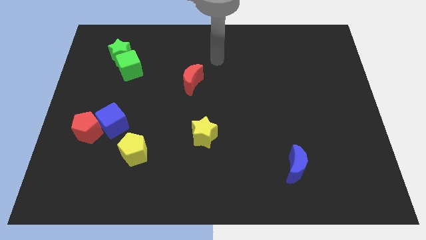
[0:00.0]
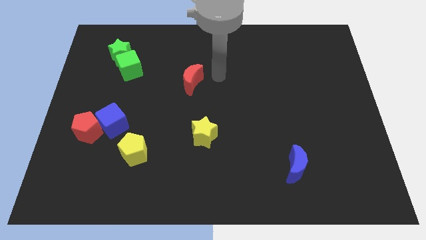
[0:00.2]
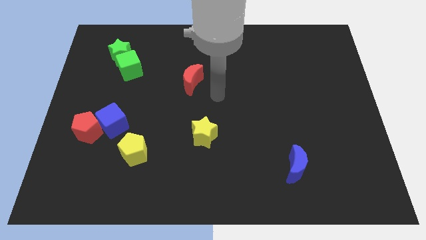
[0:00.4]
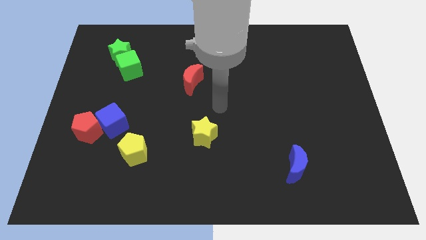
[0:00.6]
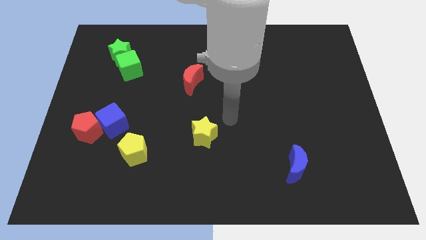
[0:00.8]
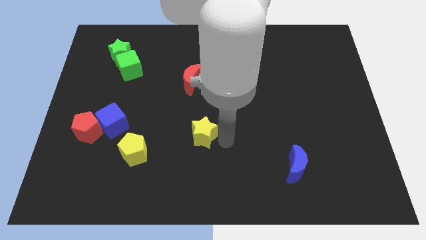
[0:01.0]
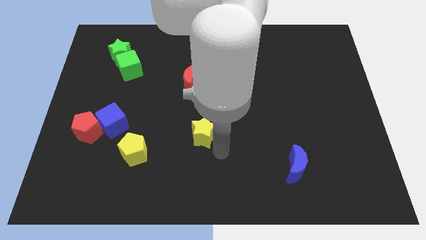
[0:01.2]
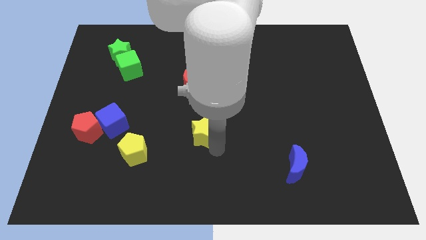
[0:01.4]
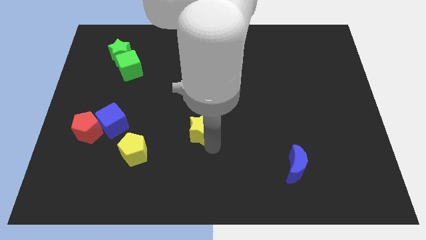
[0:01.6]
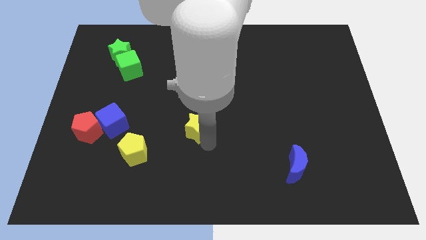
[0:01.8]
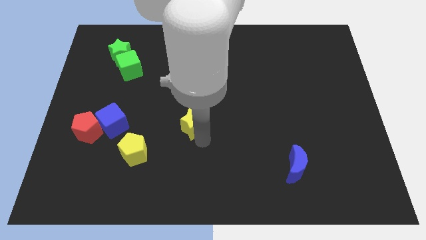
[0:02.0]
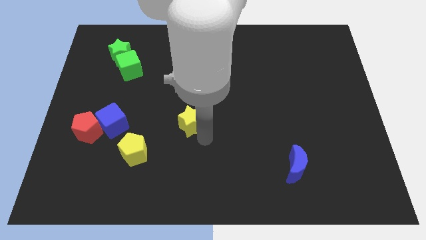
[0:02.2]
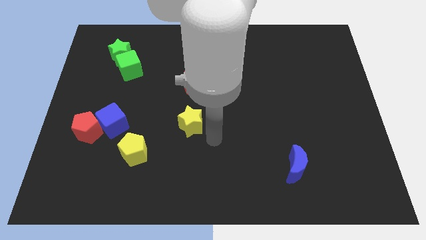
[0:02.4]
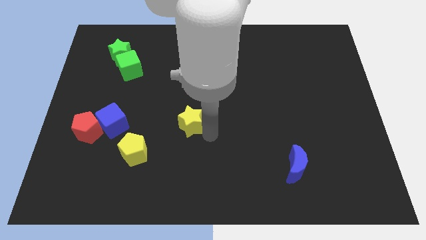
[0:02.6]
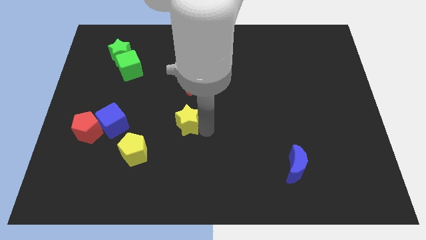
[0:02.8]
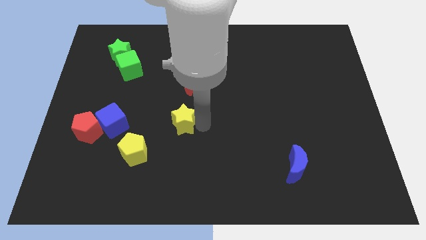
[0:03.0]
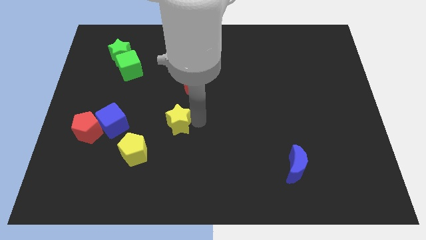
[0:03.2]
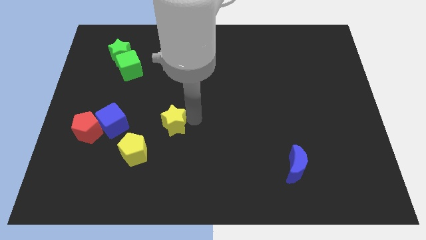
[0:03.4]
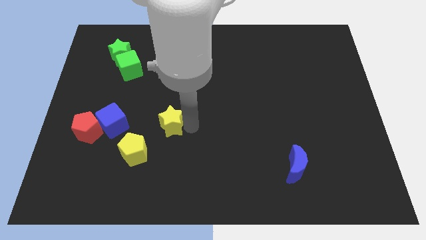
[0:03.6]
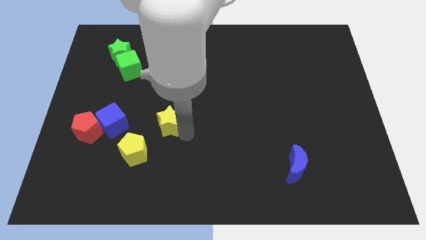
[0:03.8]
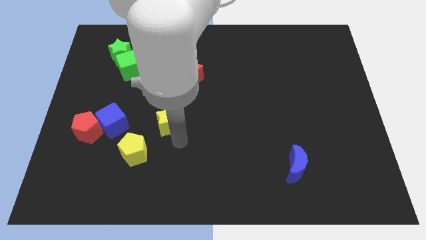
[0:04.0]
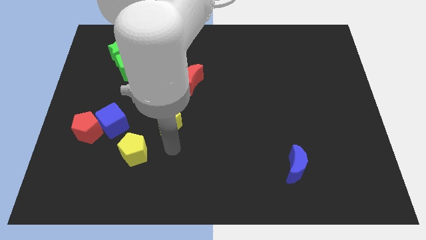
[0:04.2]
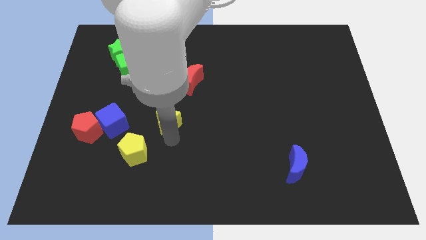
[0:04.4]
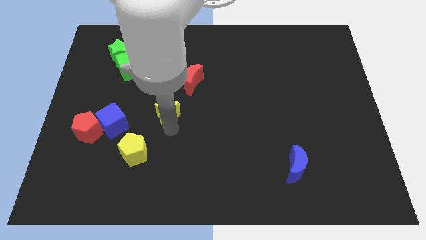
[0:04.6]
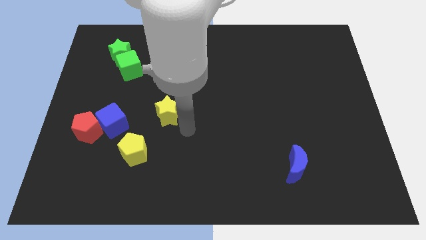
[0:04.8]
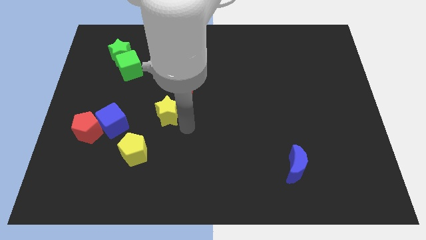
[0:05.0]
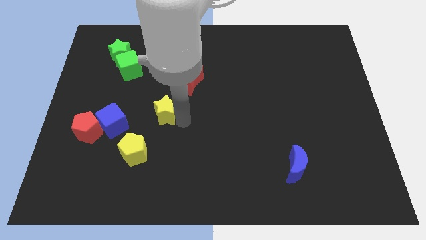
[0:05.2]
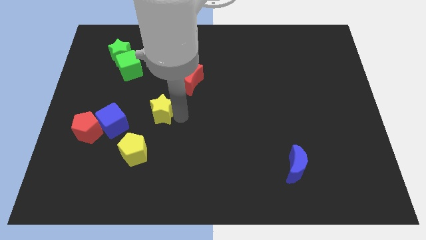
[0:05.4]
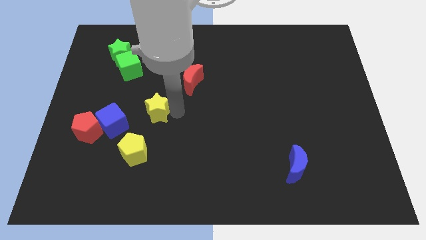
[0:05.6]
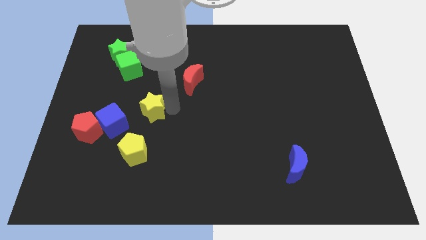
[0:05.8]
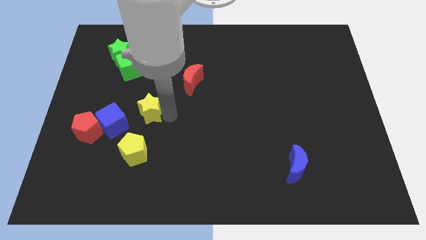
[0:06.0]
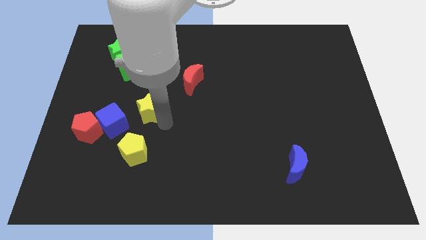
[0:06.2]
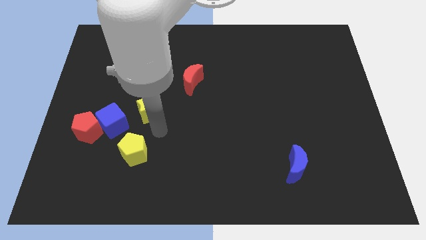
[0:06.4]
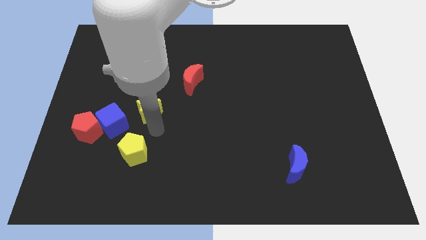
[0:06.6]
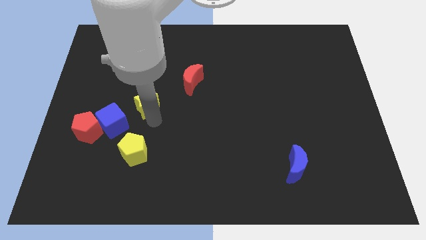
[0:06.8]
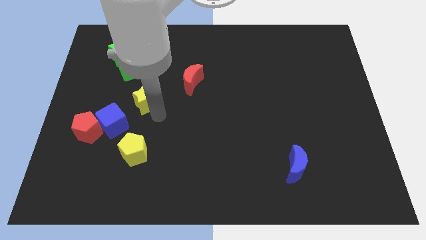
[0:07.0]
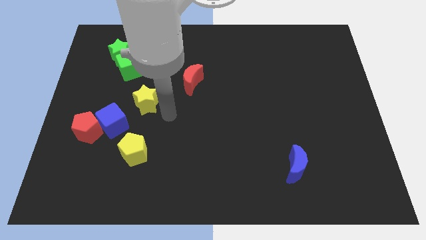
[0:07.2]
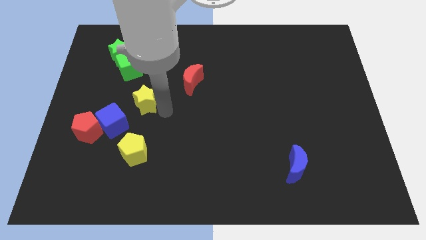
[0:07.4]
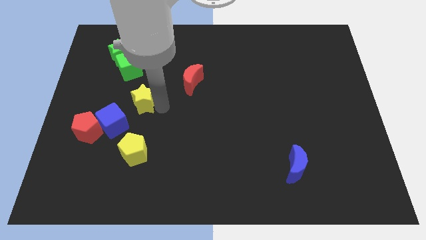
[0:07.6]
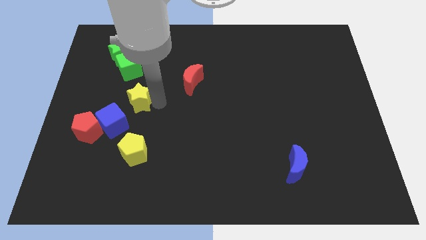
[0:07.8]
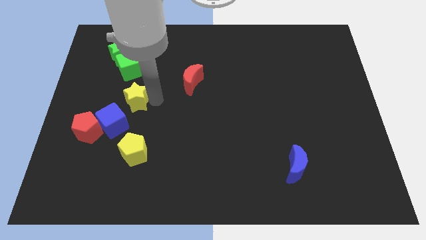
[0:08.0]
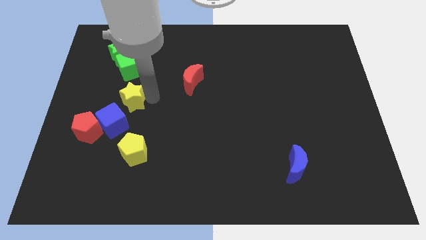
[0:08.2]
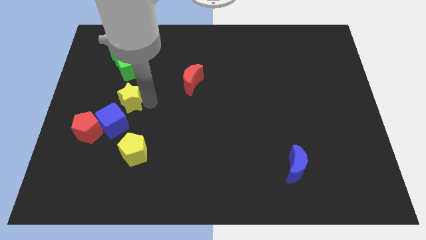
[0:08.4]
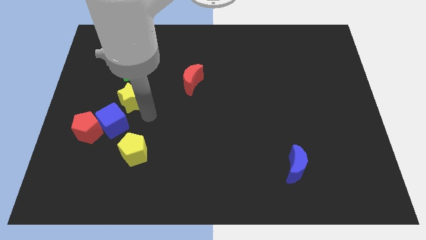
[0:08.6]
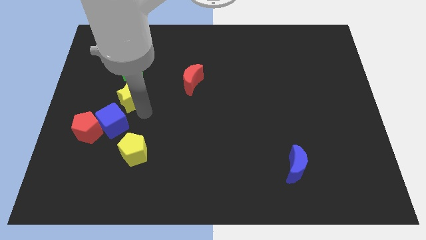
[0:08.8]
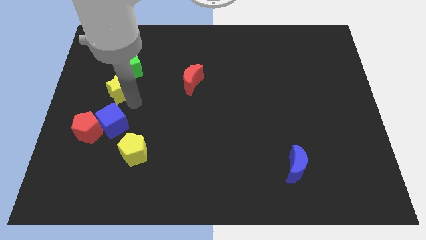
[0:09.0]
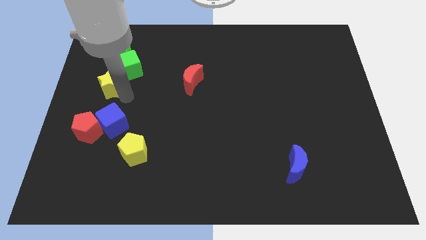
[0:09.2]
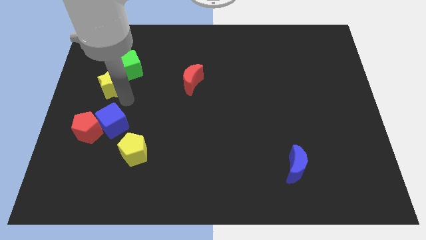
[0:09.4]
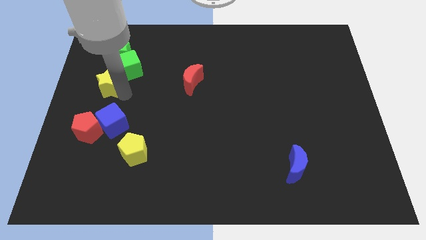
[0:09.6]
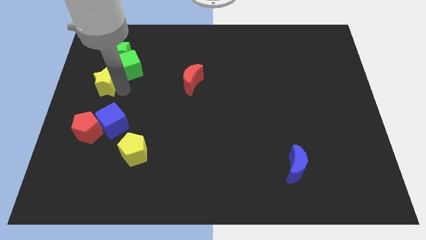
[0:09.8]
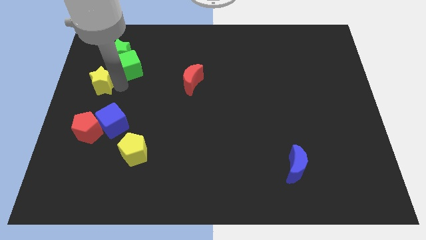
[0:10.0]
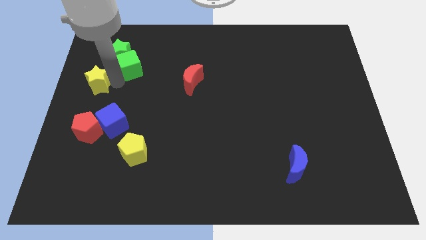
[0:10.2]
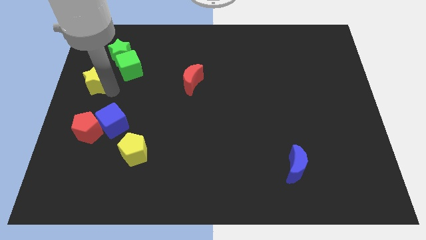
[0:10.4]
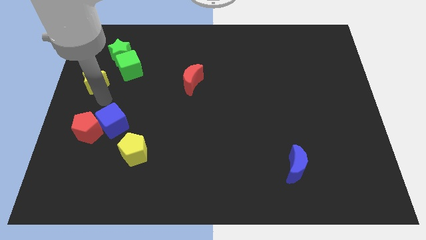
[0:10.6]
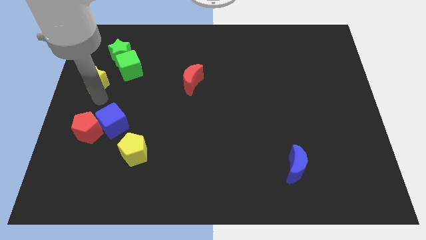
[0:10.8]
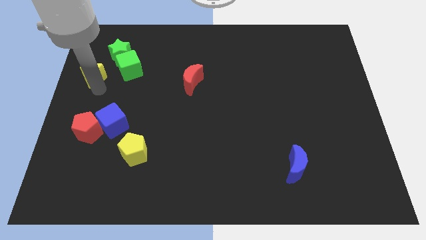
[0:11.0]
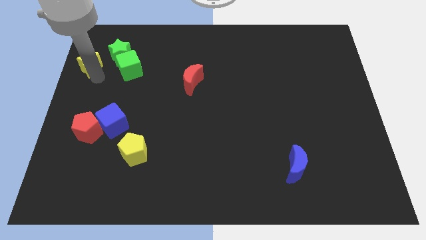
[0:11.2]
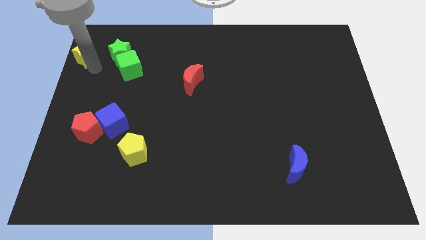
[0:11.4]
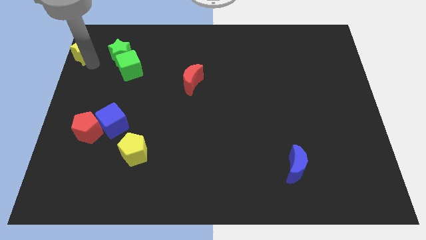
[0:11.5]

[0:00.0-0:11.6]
slide the yellow star to the upper left corner
